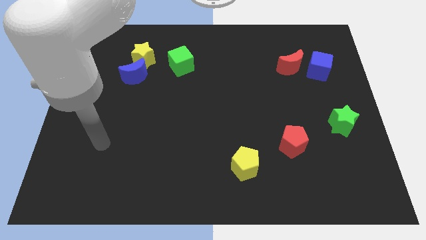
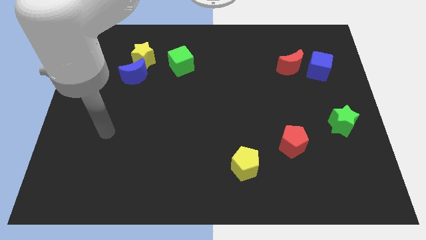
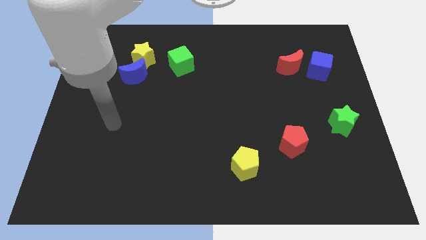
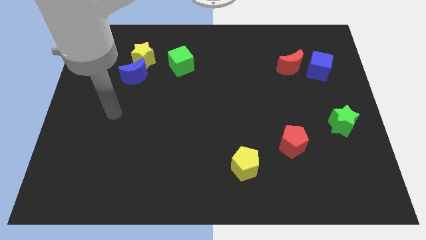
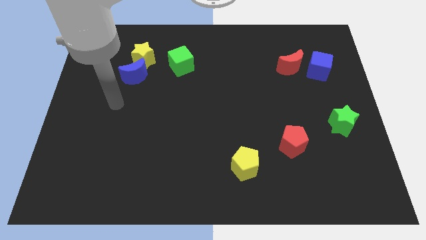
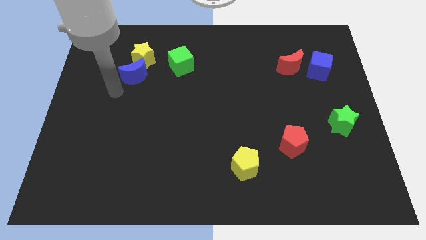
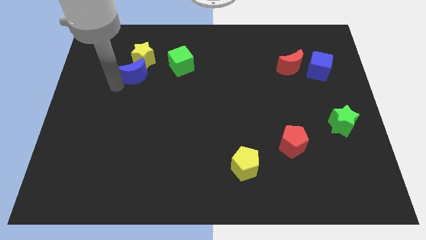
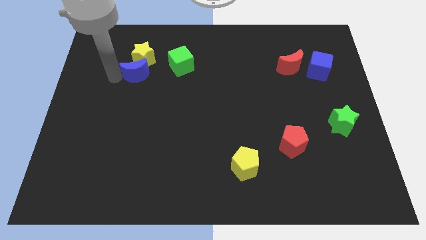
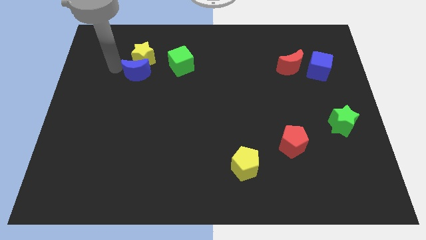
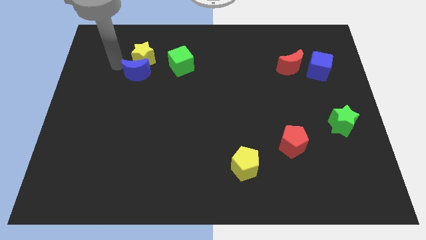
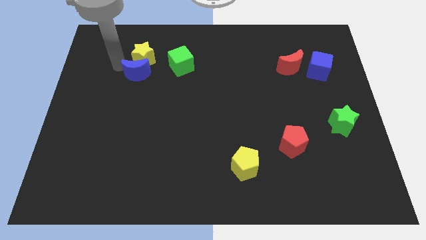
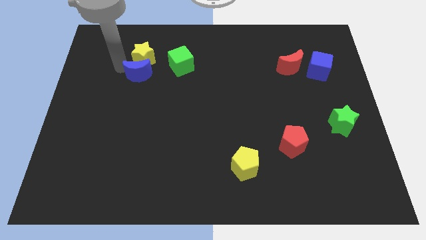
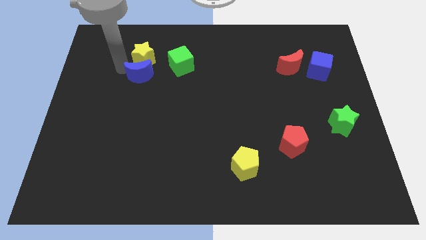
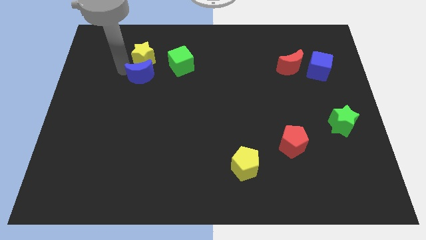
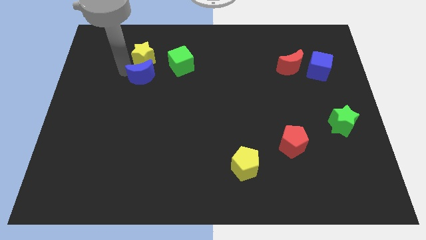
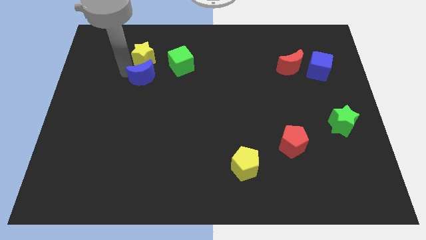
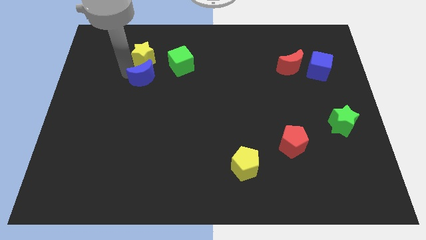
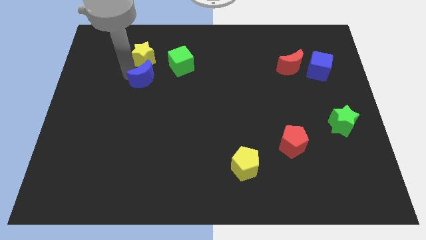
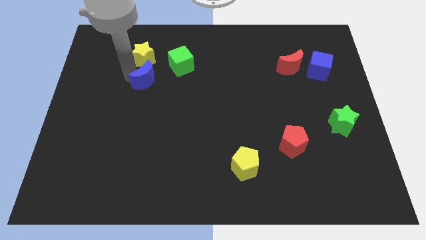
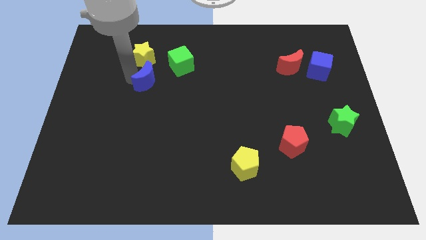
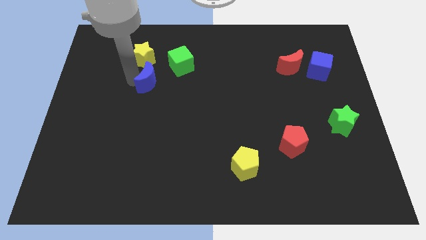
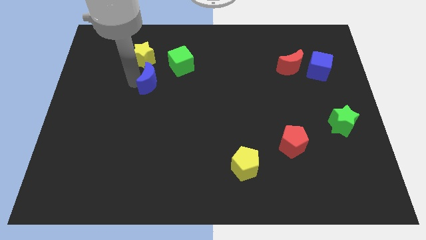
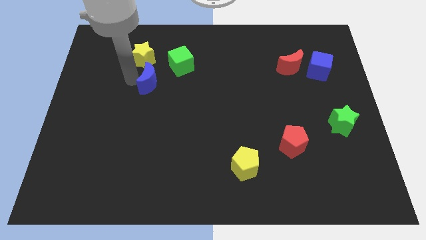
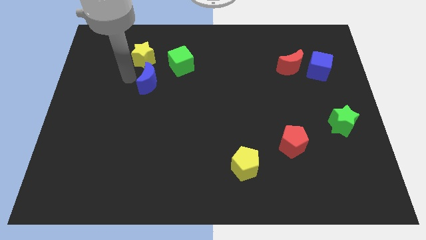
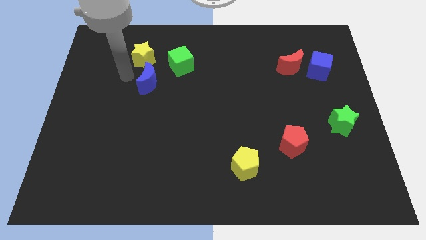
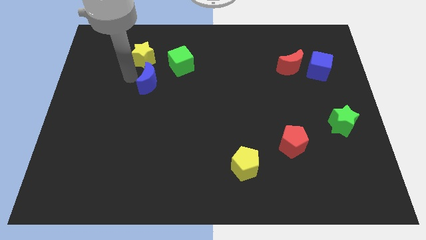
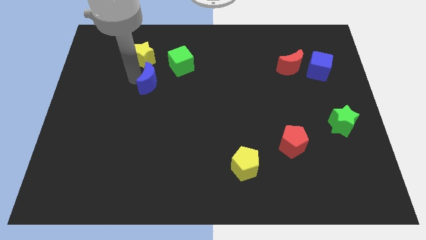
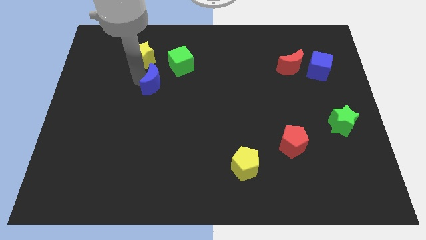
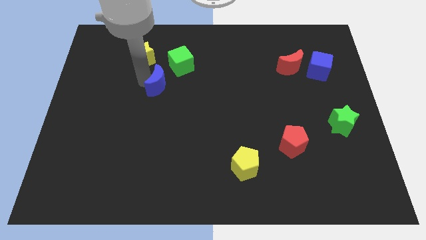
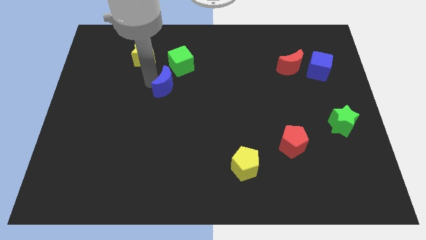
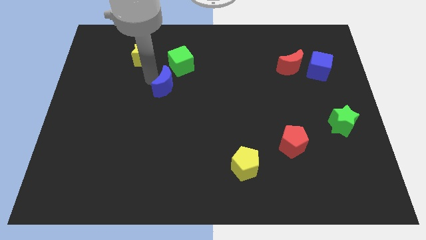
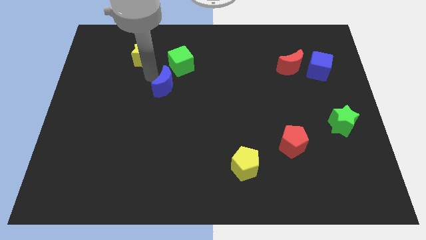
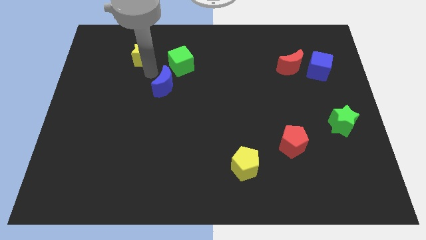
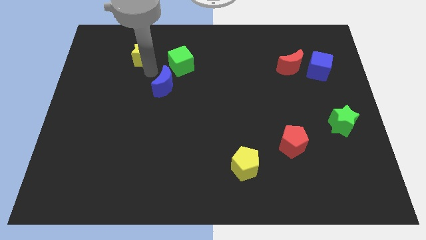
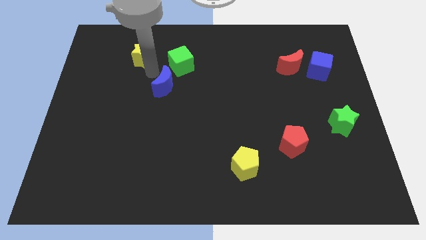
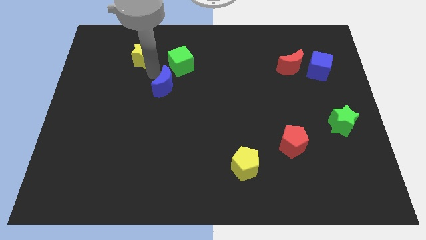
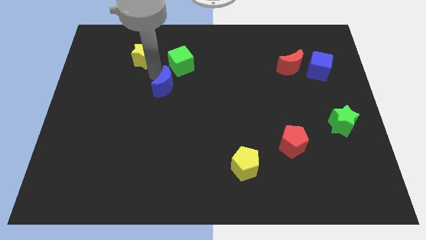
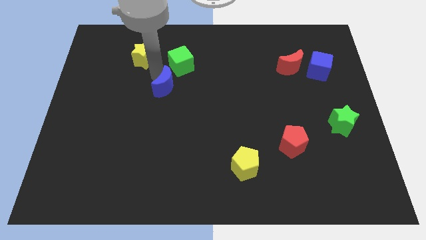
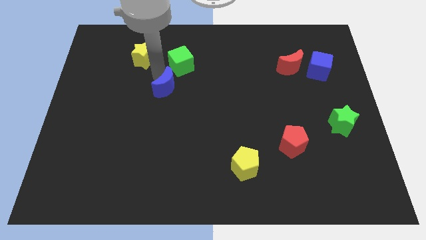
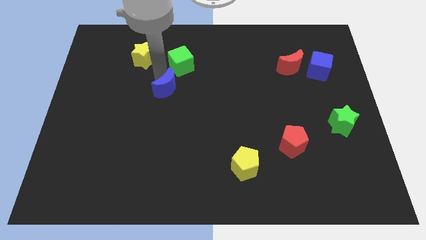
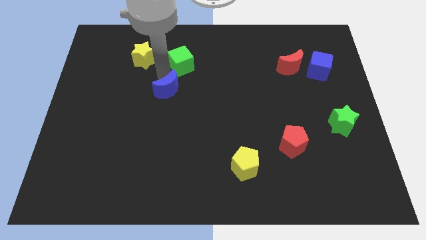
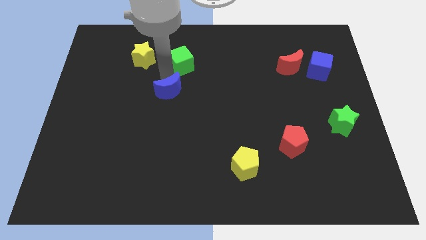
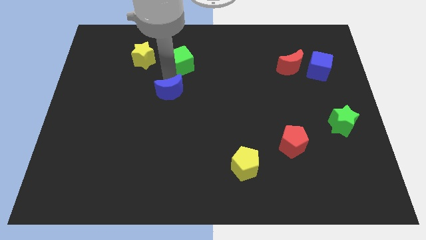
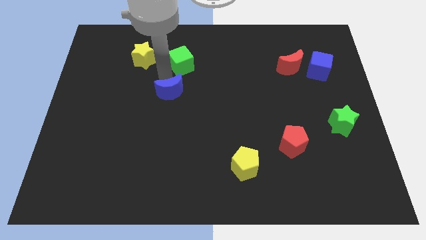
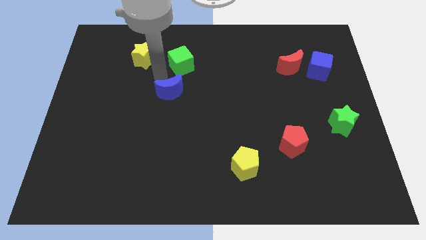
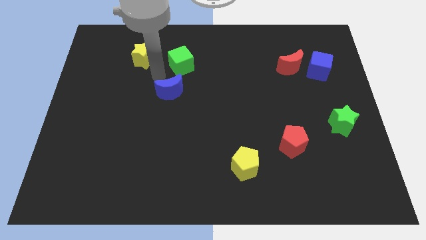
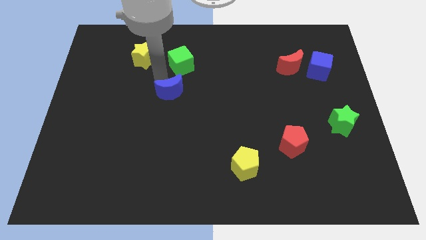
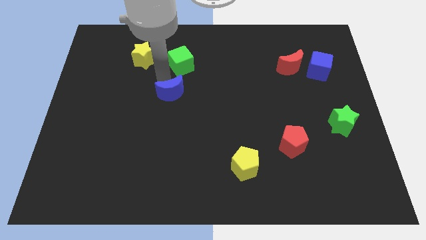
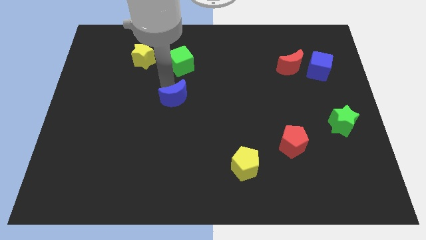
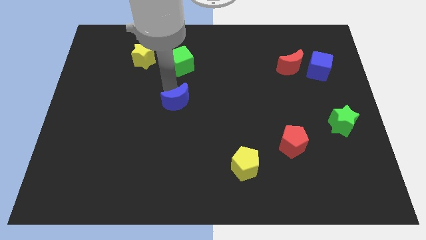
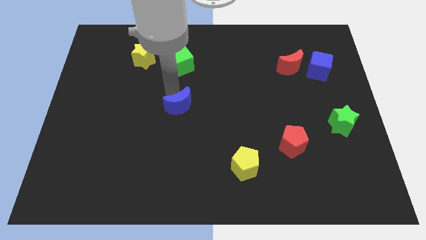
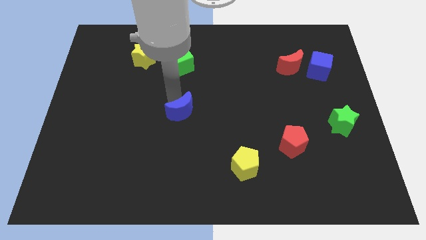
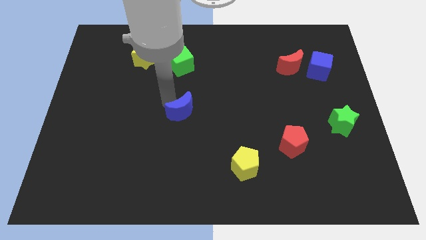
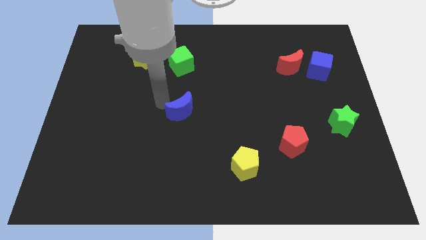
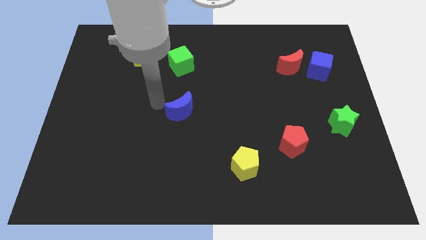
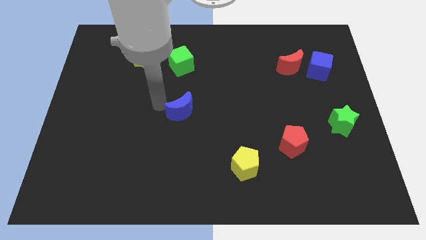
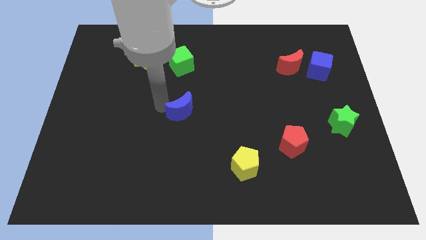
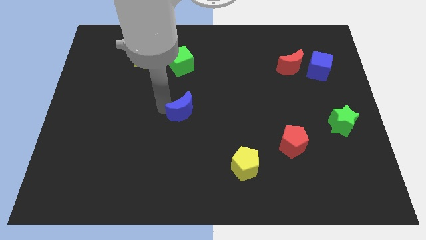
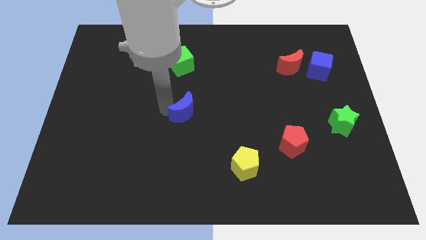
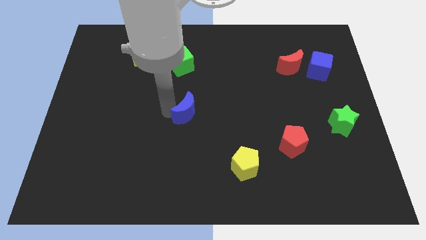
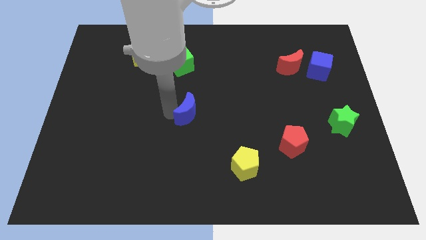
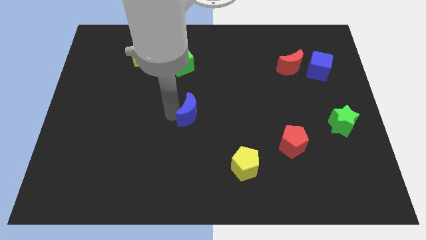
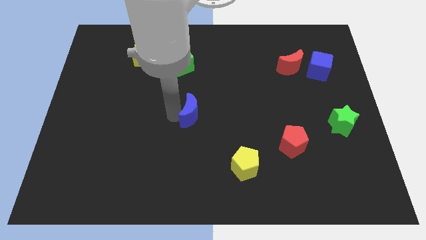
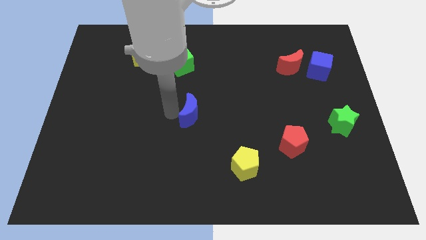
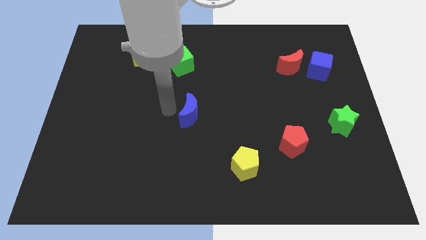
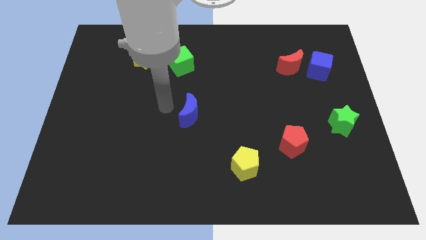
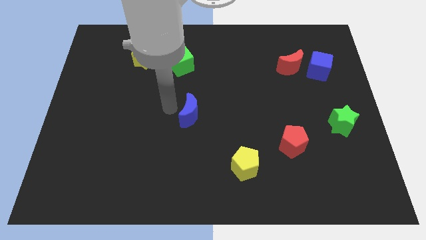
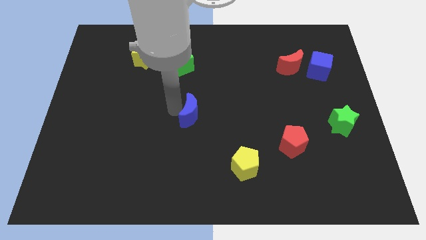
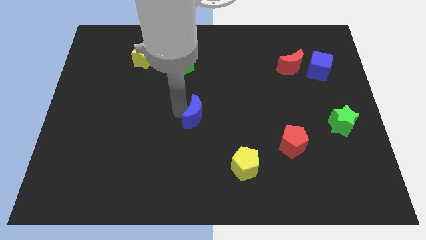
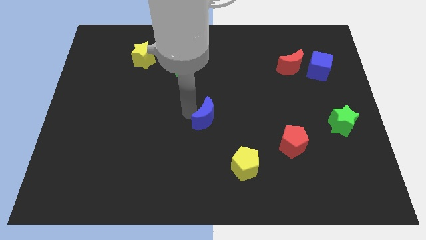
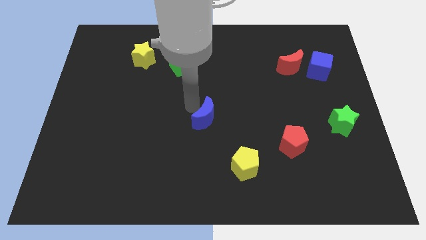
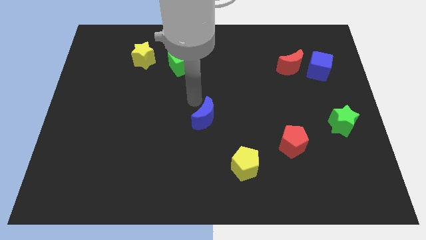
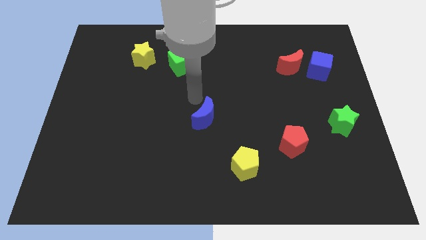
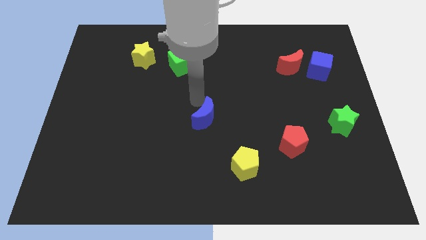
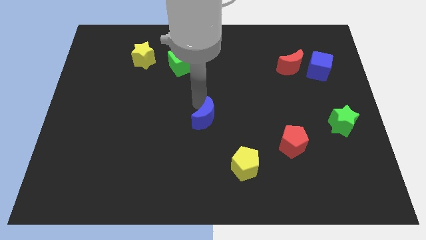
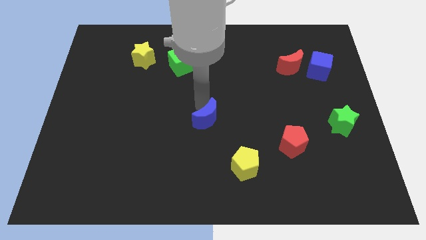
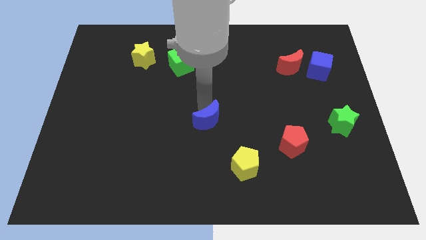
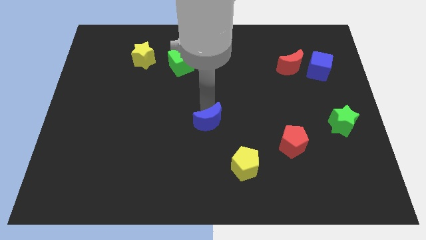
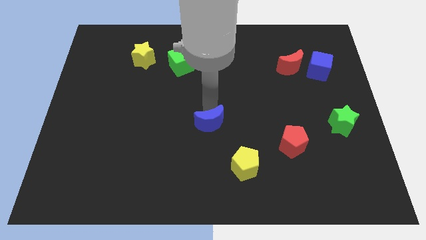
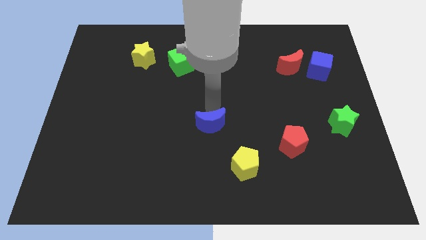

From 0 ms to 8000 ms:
push the blue moon to the top left of the yellow pentagon
